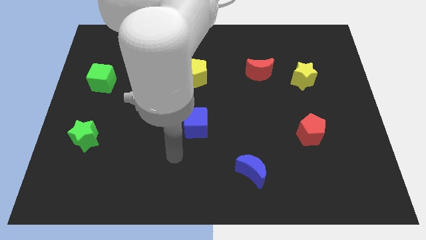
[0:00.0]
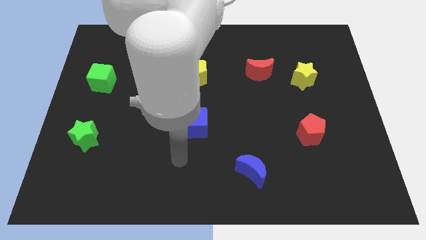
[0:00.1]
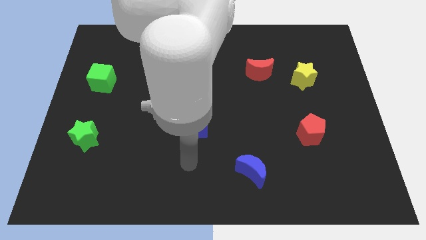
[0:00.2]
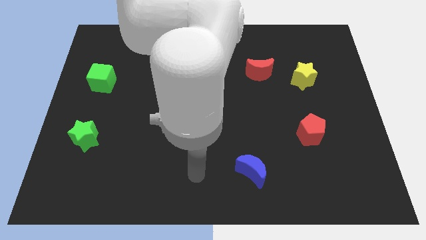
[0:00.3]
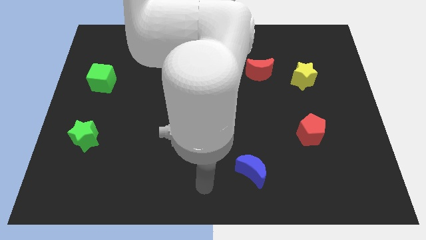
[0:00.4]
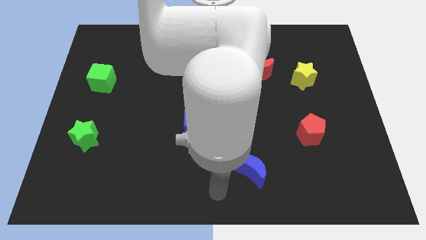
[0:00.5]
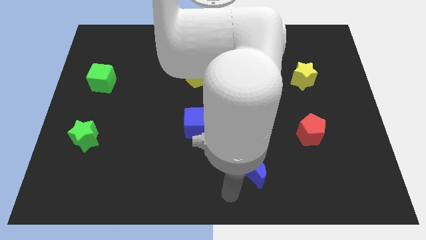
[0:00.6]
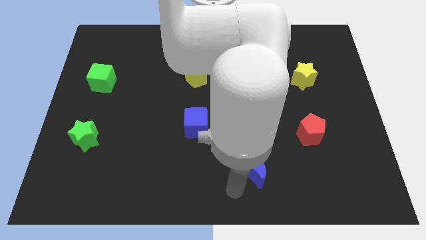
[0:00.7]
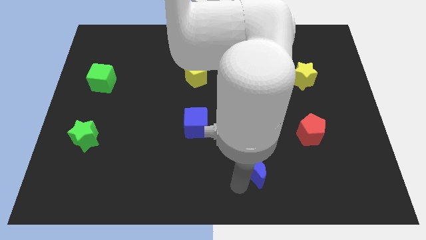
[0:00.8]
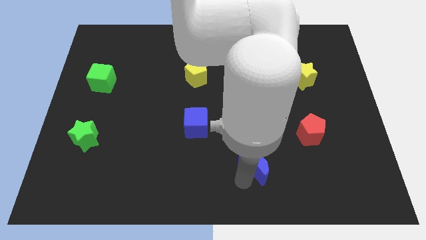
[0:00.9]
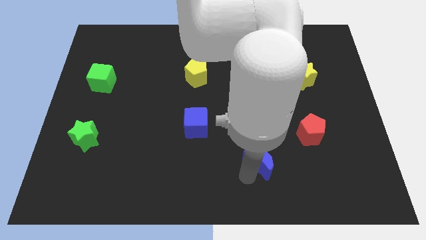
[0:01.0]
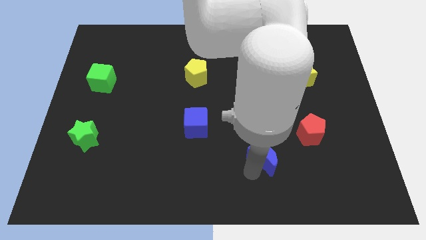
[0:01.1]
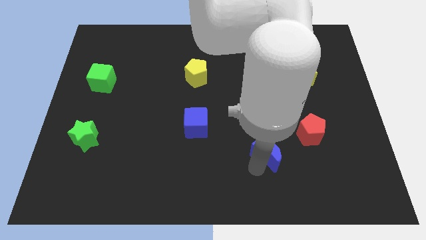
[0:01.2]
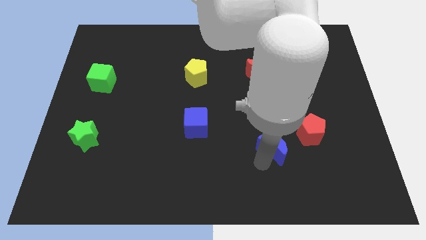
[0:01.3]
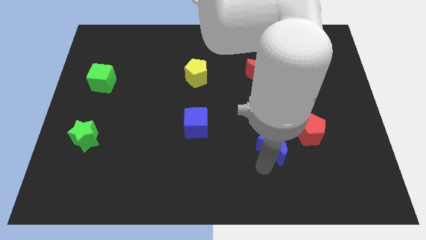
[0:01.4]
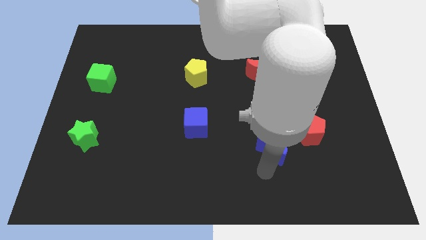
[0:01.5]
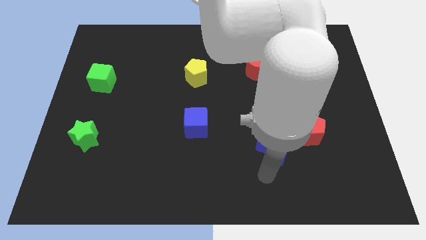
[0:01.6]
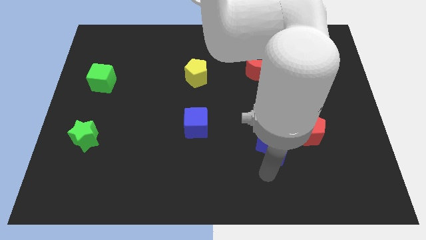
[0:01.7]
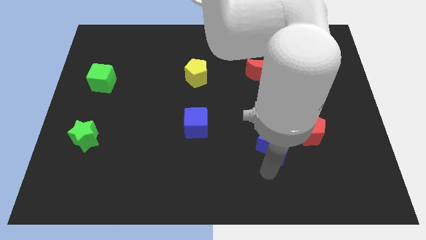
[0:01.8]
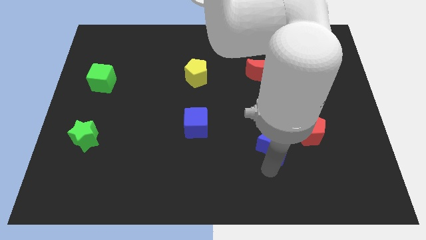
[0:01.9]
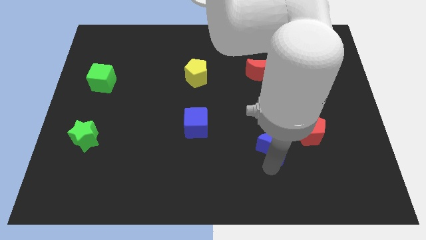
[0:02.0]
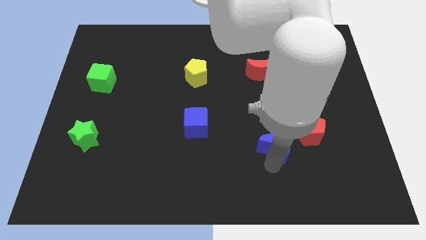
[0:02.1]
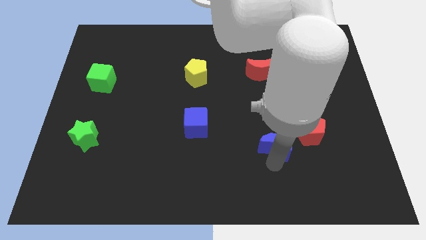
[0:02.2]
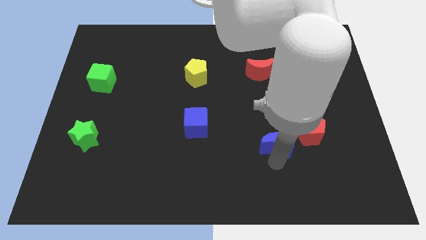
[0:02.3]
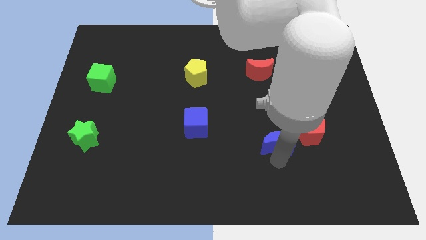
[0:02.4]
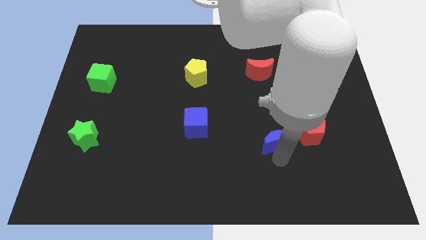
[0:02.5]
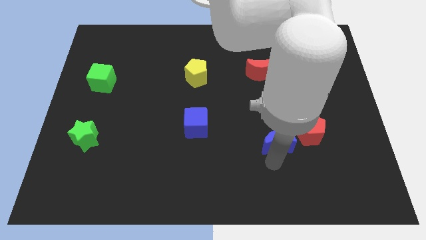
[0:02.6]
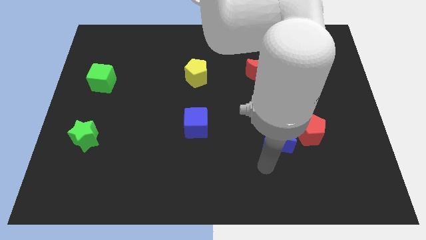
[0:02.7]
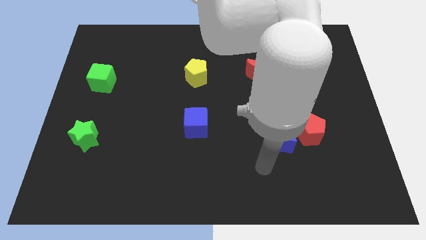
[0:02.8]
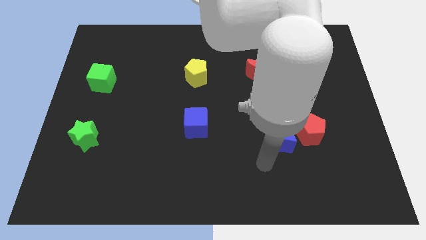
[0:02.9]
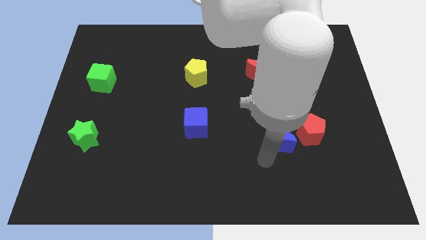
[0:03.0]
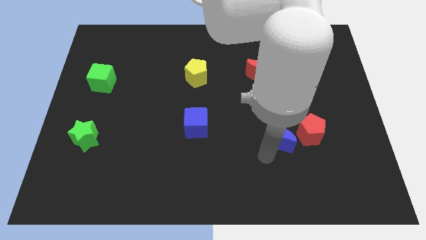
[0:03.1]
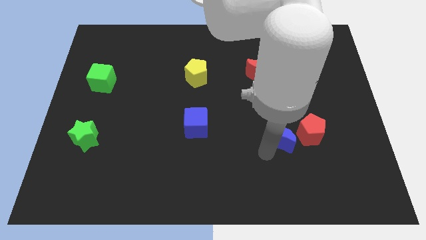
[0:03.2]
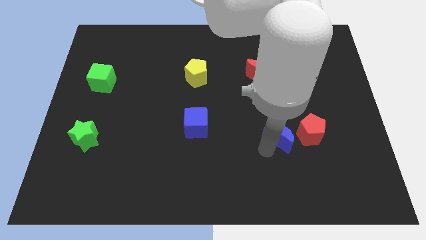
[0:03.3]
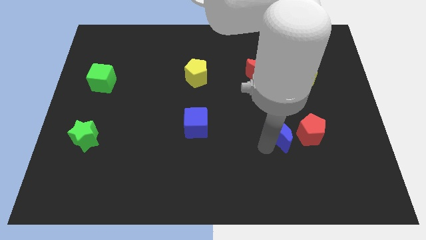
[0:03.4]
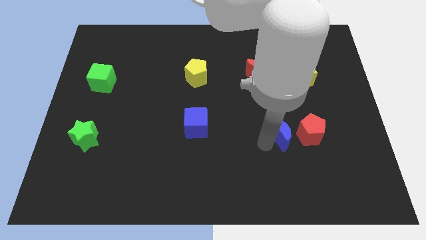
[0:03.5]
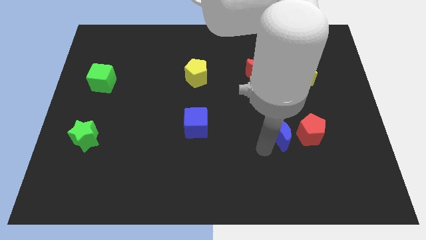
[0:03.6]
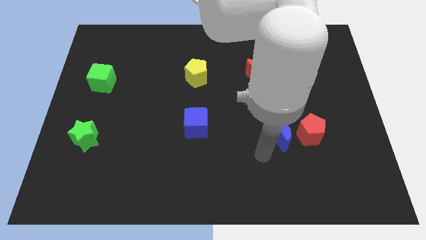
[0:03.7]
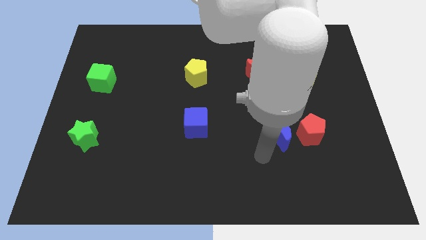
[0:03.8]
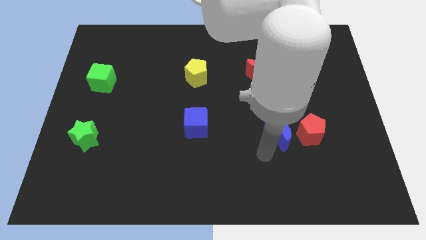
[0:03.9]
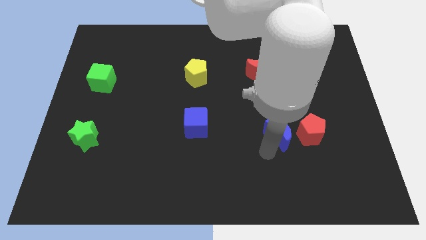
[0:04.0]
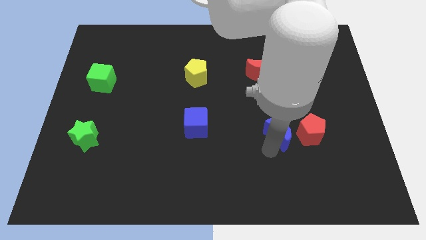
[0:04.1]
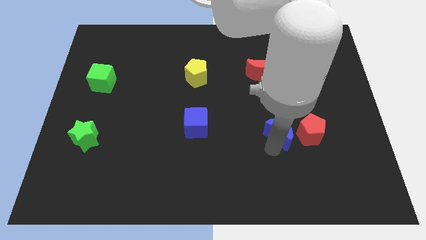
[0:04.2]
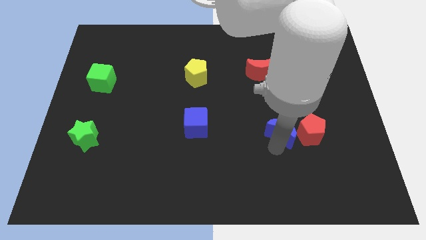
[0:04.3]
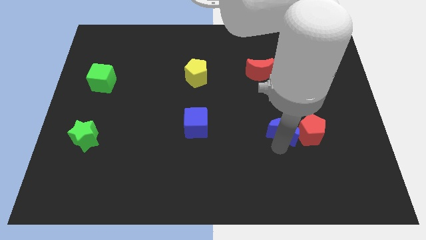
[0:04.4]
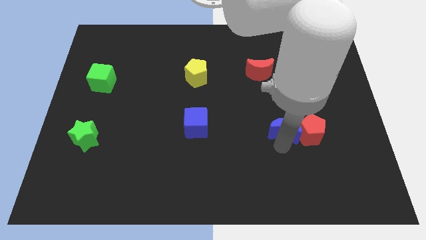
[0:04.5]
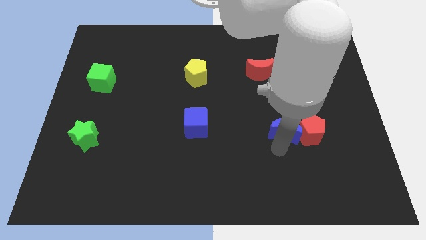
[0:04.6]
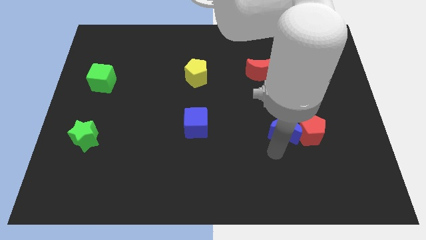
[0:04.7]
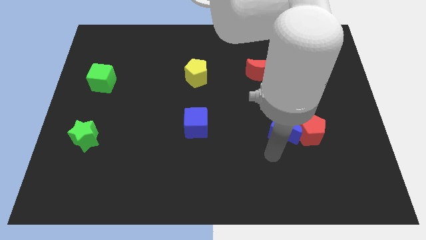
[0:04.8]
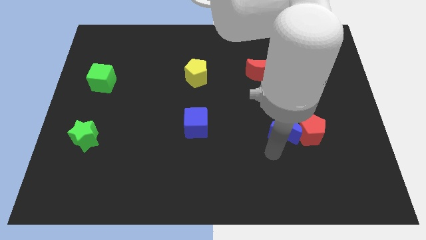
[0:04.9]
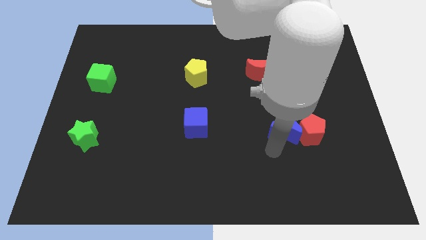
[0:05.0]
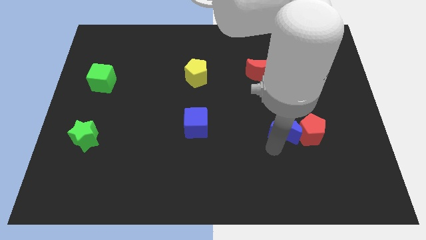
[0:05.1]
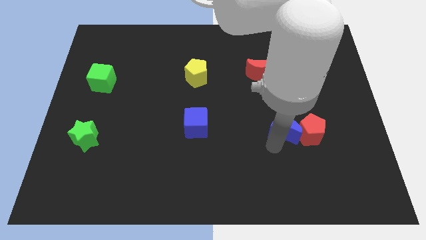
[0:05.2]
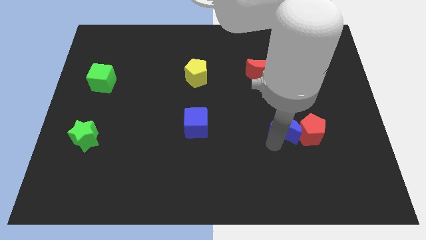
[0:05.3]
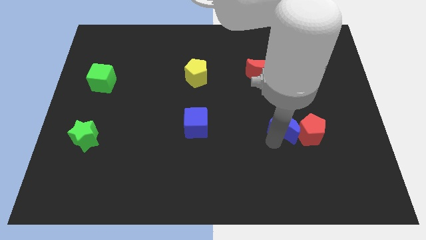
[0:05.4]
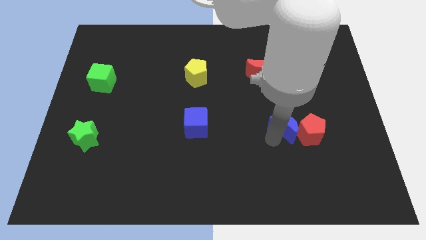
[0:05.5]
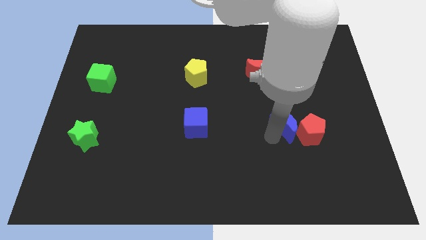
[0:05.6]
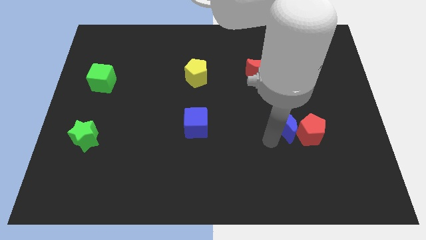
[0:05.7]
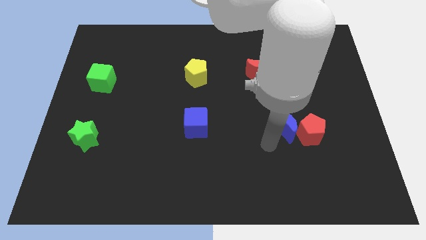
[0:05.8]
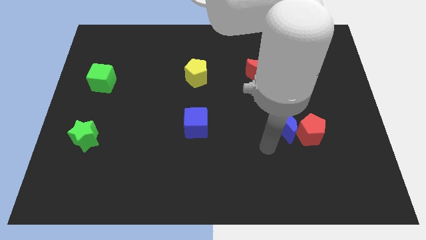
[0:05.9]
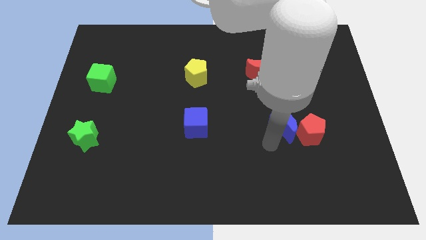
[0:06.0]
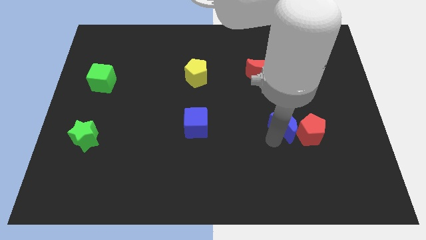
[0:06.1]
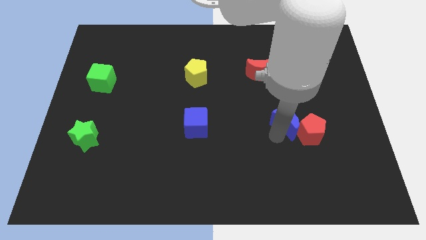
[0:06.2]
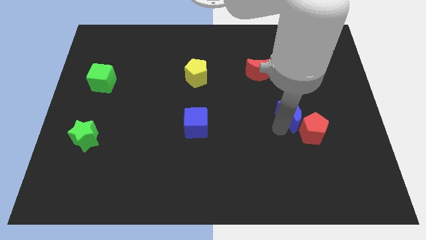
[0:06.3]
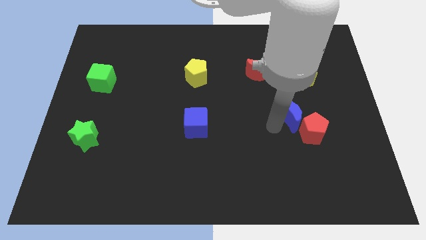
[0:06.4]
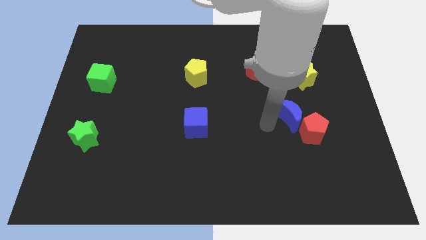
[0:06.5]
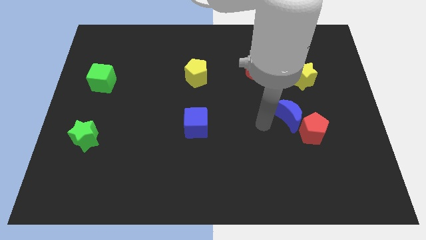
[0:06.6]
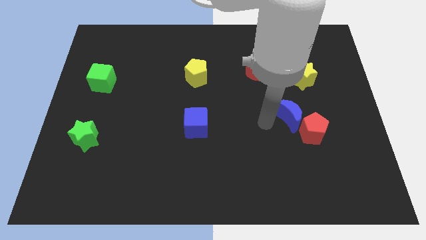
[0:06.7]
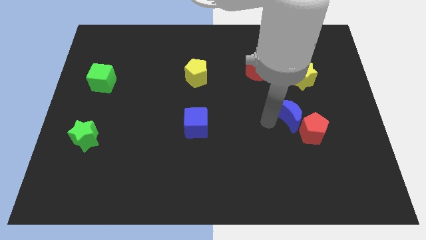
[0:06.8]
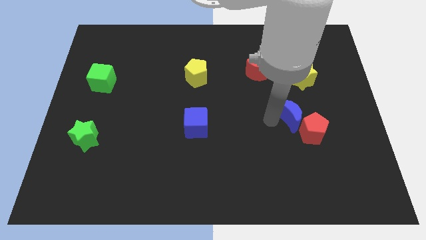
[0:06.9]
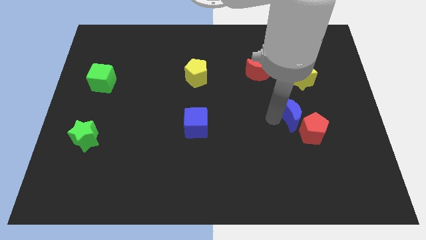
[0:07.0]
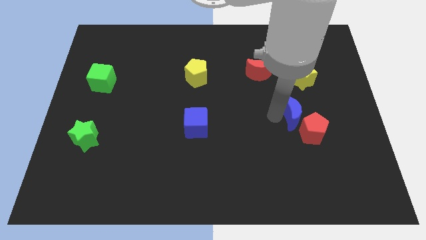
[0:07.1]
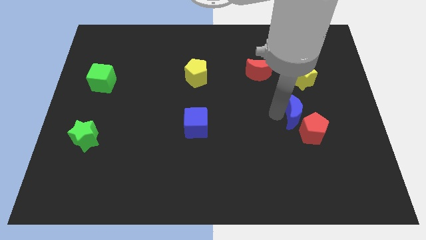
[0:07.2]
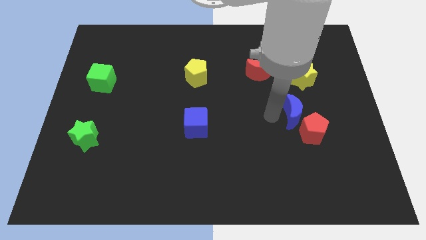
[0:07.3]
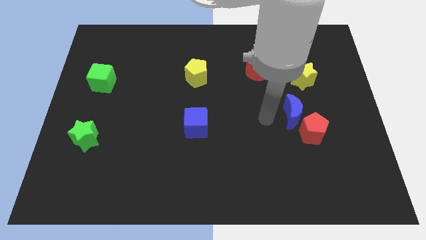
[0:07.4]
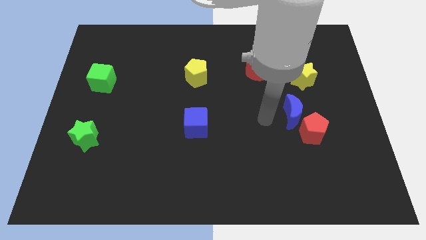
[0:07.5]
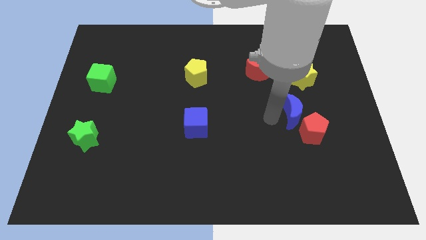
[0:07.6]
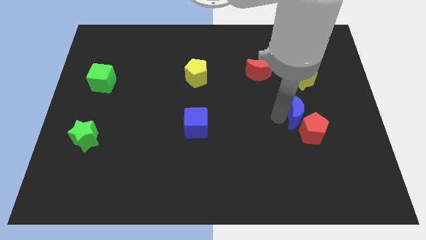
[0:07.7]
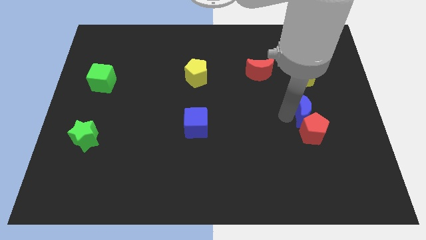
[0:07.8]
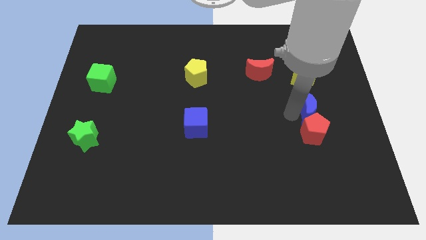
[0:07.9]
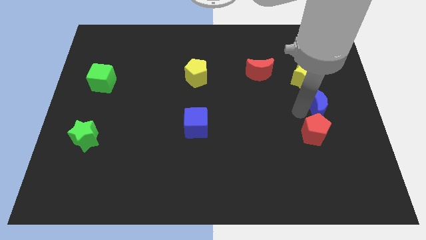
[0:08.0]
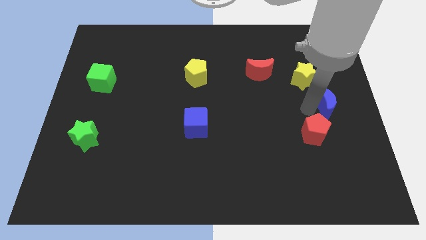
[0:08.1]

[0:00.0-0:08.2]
put the blue moon to the right side of the board
